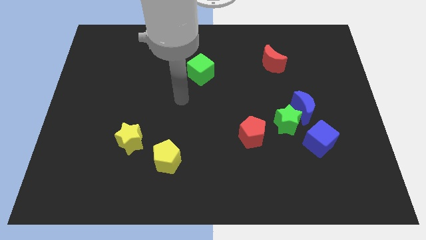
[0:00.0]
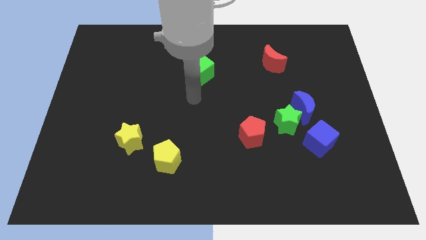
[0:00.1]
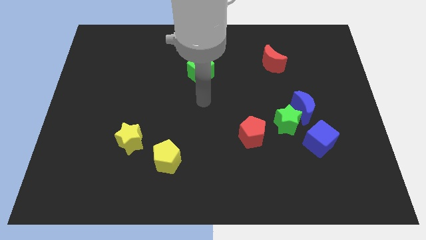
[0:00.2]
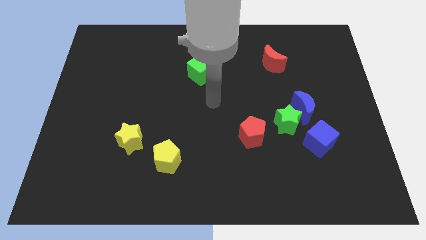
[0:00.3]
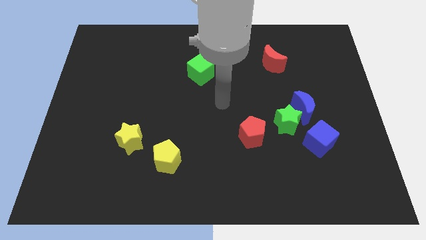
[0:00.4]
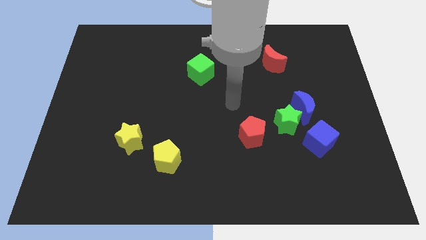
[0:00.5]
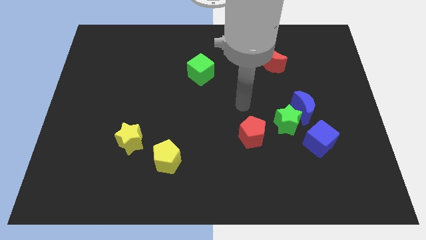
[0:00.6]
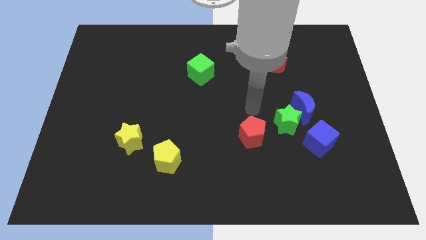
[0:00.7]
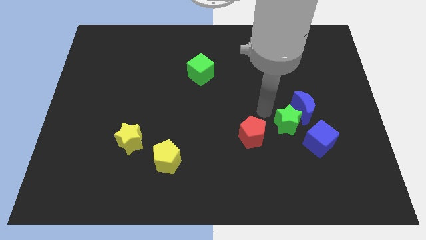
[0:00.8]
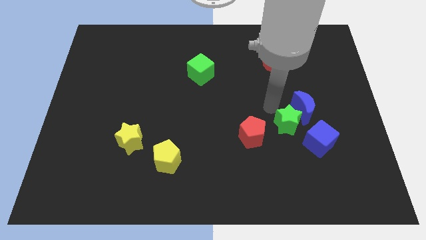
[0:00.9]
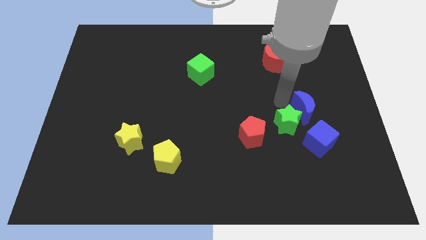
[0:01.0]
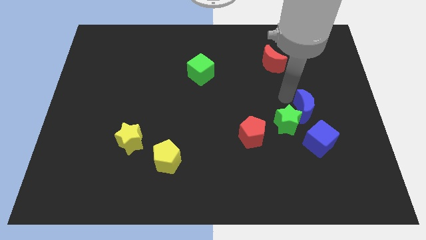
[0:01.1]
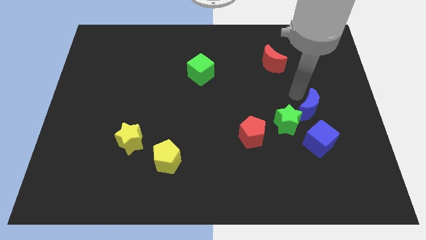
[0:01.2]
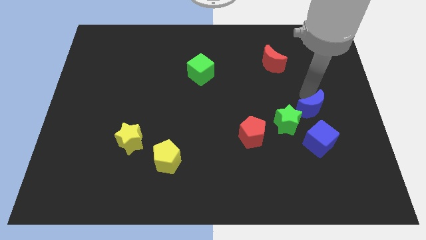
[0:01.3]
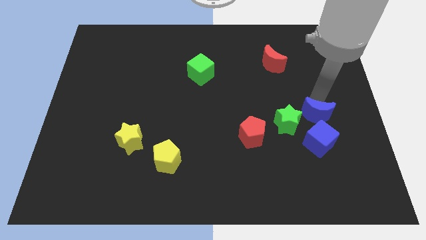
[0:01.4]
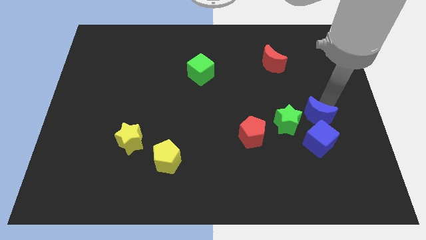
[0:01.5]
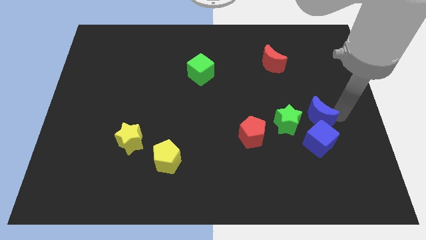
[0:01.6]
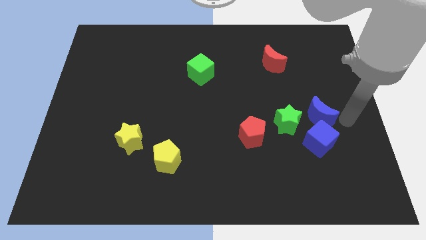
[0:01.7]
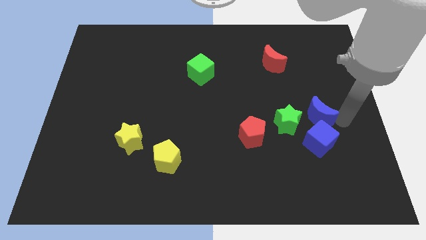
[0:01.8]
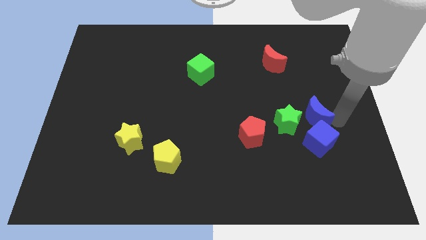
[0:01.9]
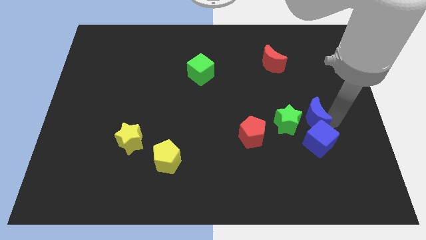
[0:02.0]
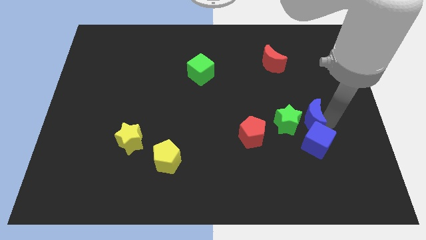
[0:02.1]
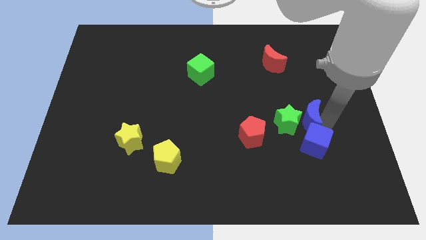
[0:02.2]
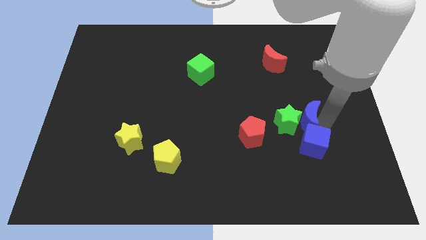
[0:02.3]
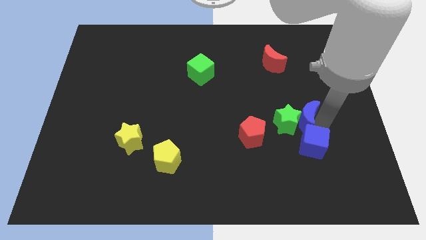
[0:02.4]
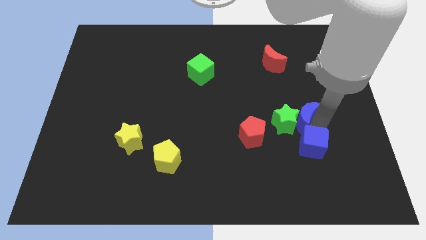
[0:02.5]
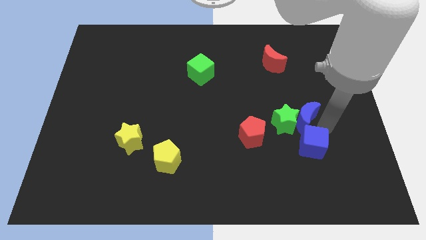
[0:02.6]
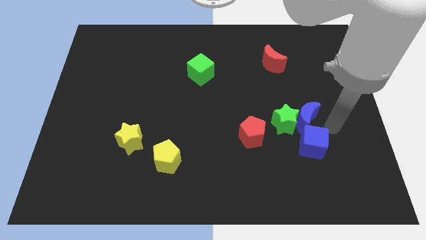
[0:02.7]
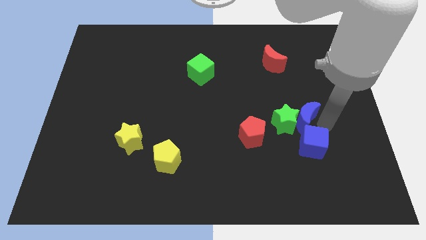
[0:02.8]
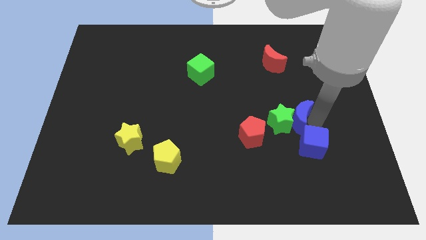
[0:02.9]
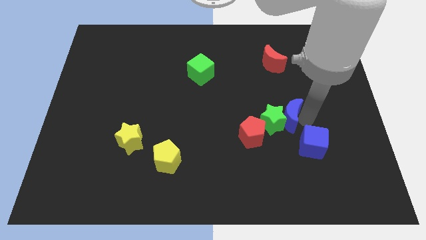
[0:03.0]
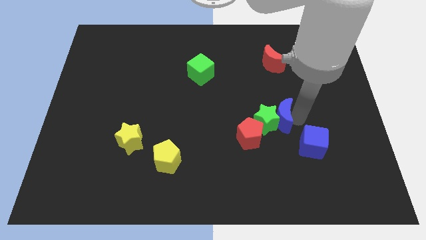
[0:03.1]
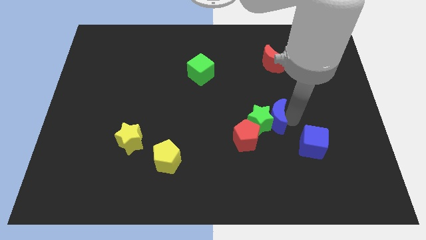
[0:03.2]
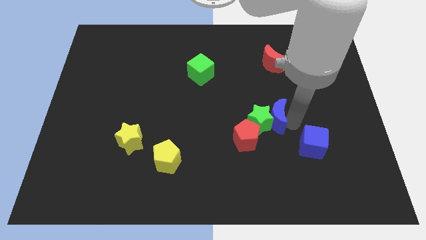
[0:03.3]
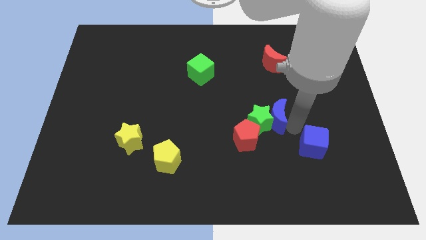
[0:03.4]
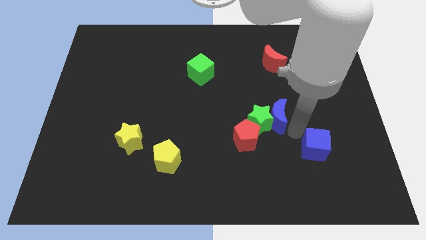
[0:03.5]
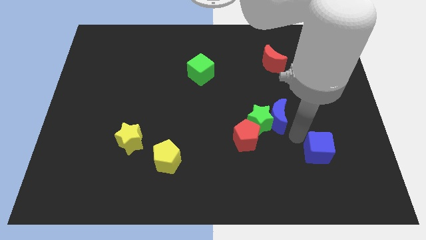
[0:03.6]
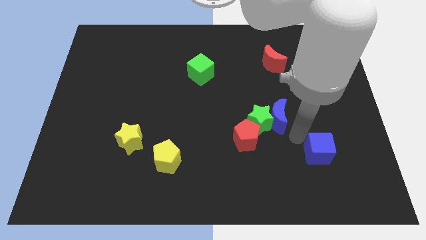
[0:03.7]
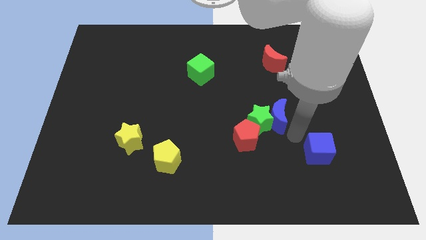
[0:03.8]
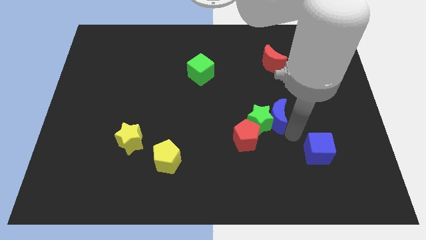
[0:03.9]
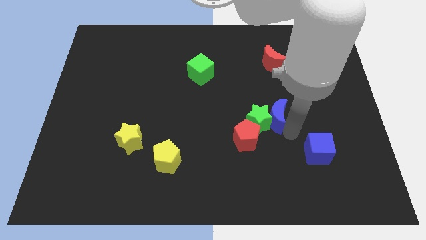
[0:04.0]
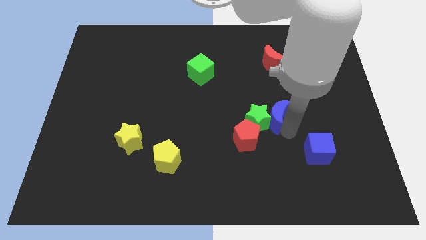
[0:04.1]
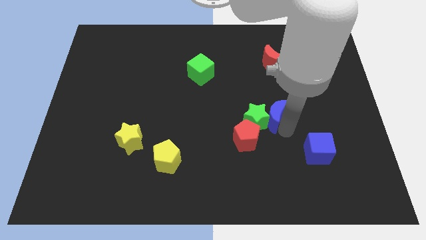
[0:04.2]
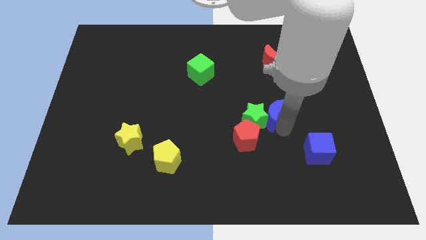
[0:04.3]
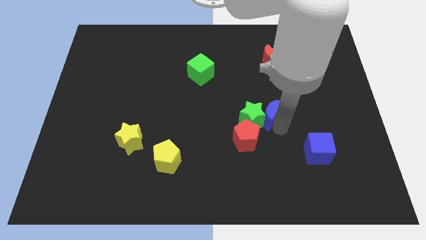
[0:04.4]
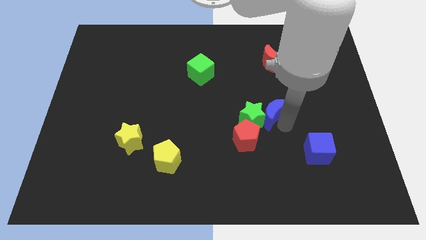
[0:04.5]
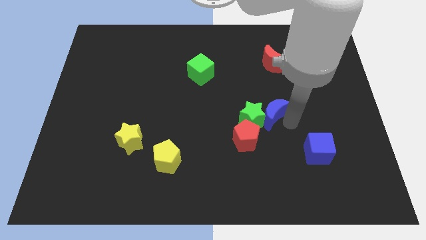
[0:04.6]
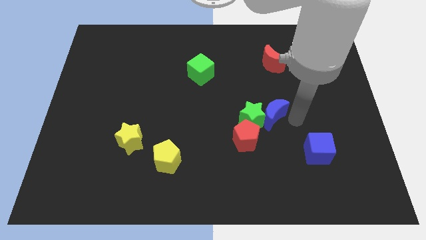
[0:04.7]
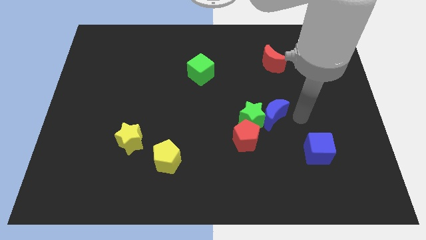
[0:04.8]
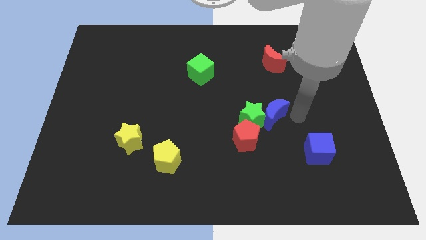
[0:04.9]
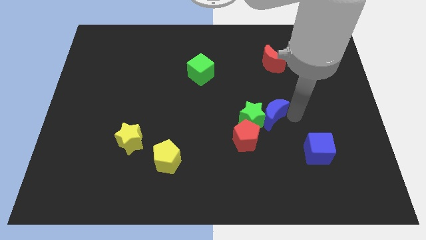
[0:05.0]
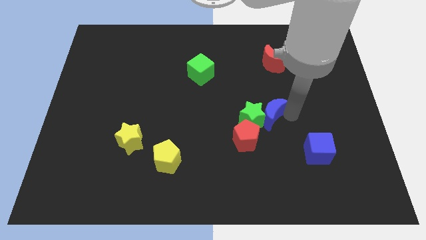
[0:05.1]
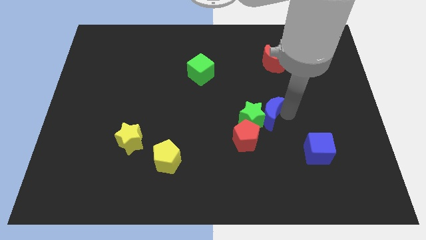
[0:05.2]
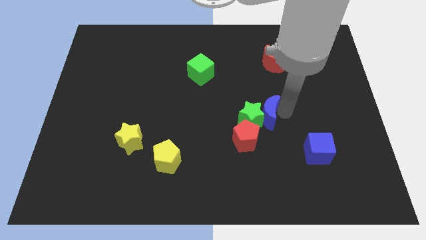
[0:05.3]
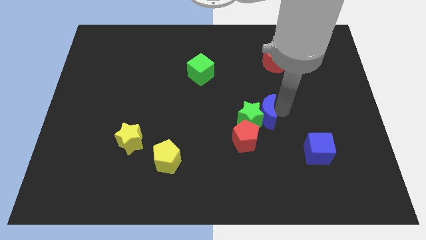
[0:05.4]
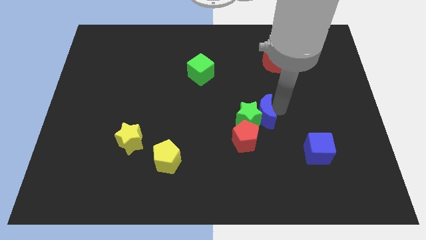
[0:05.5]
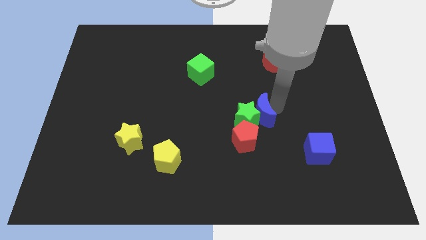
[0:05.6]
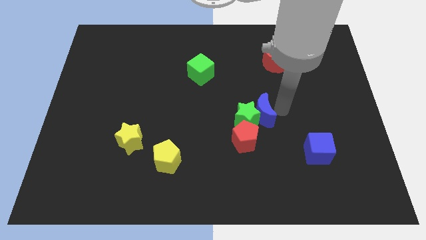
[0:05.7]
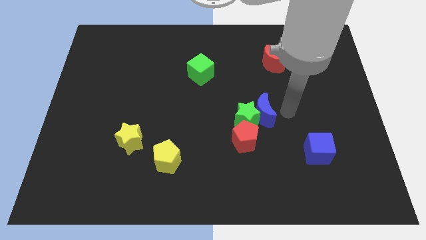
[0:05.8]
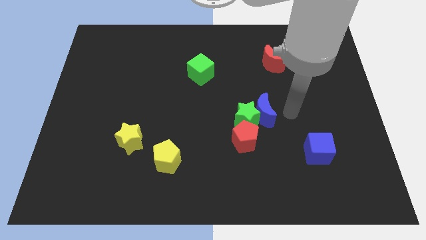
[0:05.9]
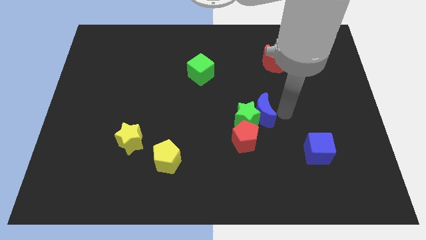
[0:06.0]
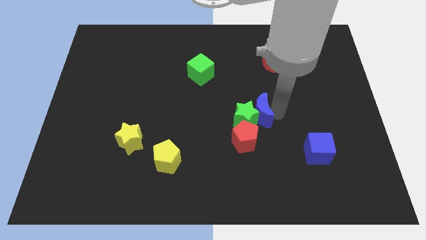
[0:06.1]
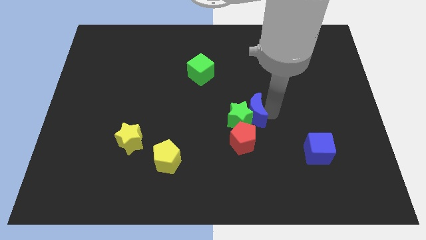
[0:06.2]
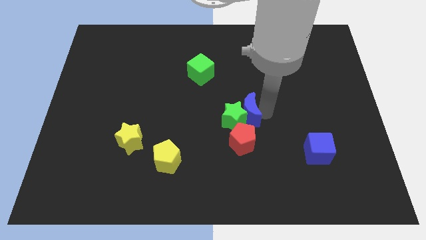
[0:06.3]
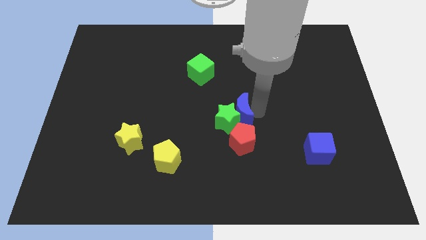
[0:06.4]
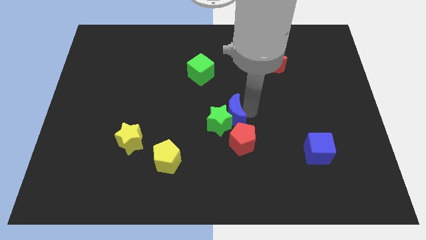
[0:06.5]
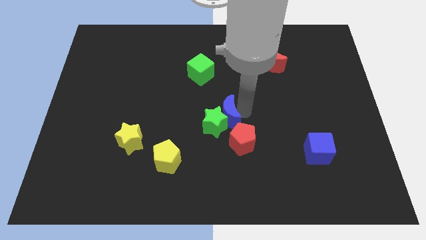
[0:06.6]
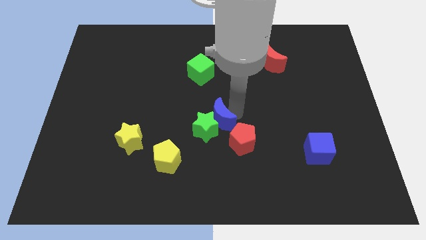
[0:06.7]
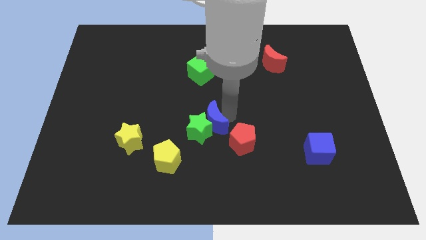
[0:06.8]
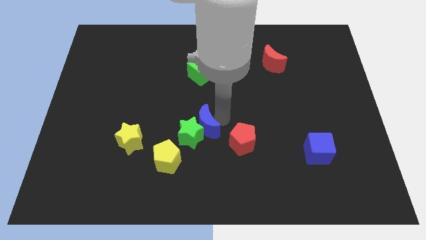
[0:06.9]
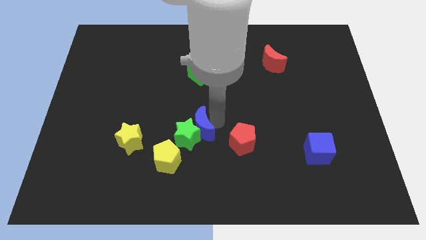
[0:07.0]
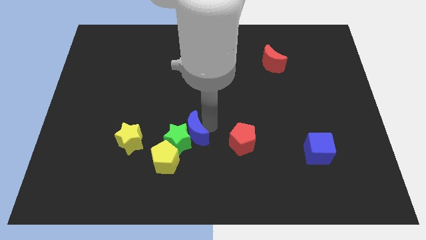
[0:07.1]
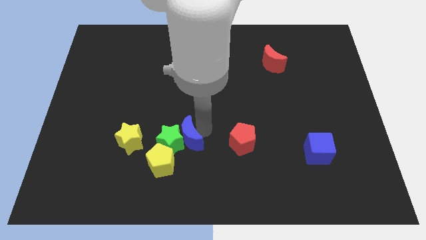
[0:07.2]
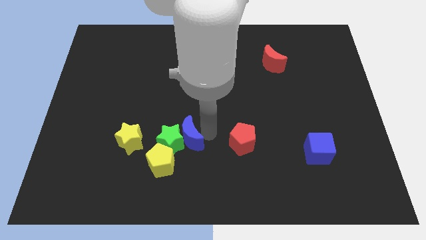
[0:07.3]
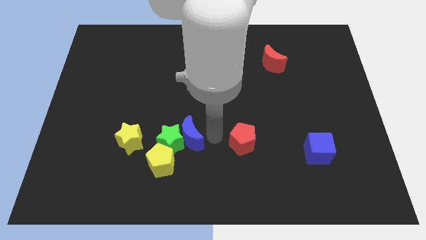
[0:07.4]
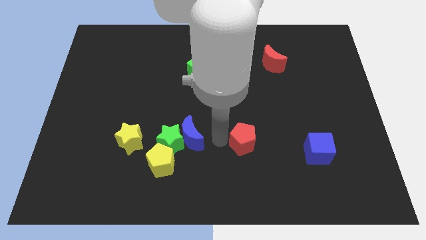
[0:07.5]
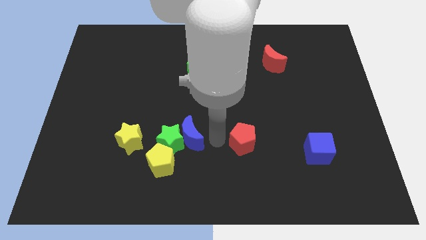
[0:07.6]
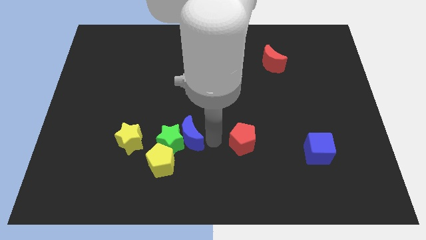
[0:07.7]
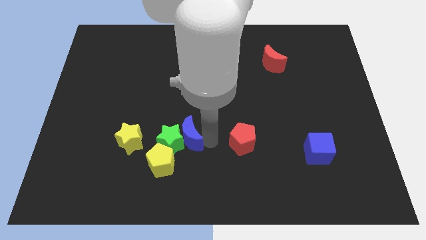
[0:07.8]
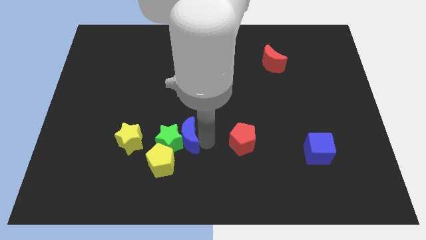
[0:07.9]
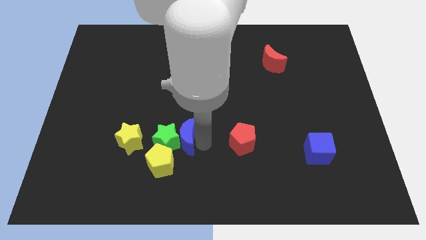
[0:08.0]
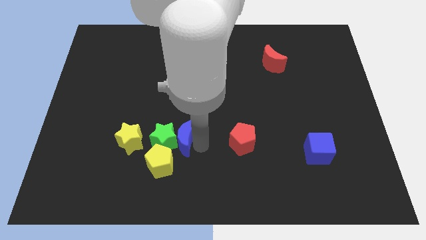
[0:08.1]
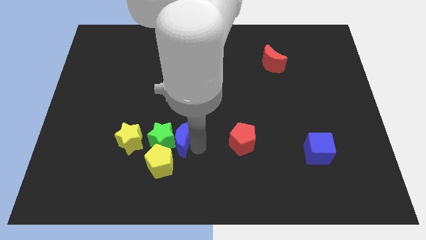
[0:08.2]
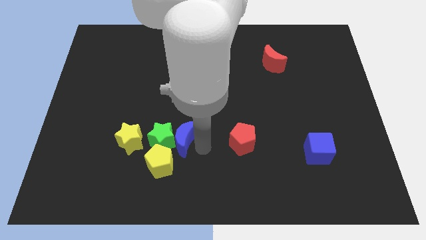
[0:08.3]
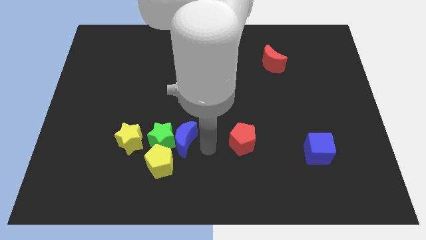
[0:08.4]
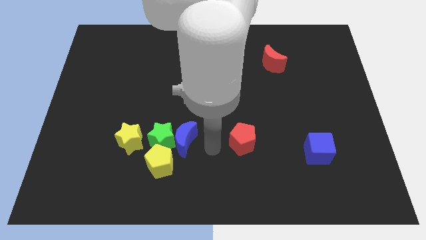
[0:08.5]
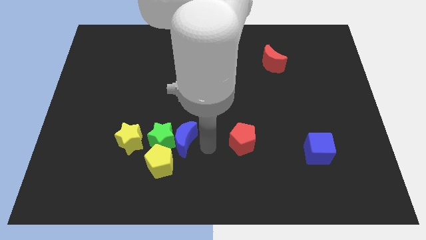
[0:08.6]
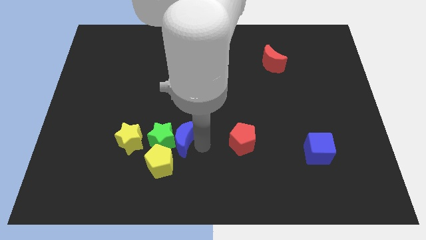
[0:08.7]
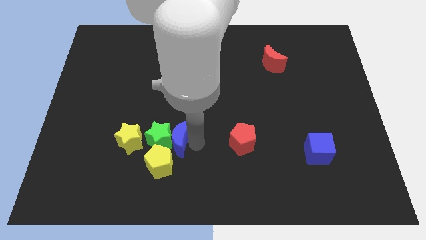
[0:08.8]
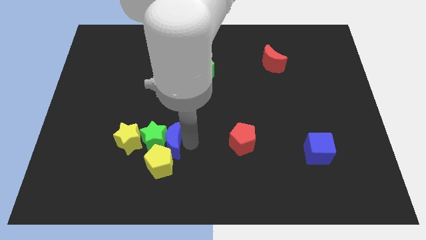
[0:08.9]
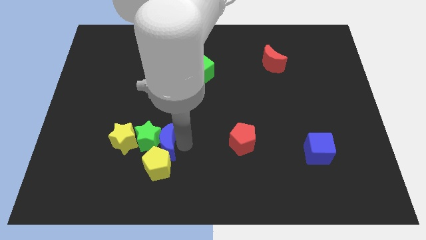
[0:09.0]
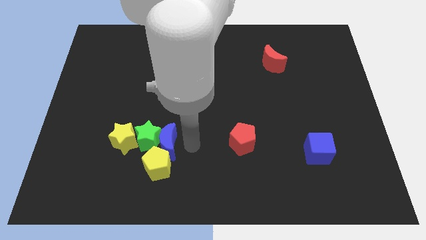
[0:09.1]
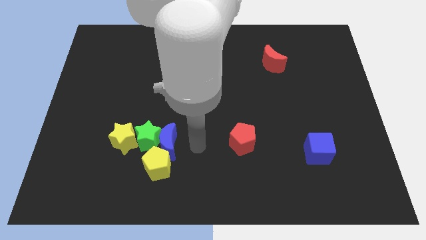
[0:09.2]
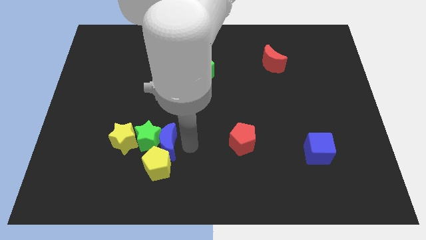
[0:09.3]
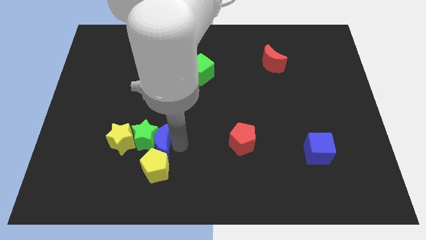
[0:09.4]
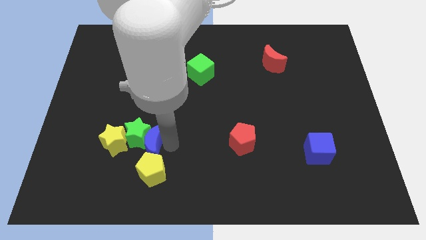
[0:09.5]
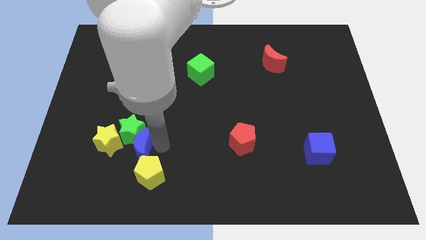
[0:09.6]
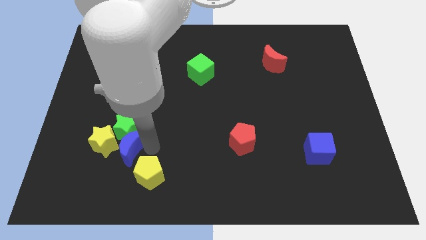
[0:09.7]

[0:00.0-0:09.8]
push the blue moon to the yellow star
